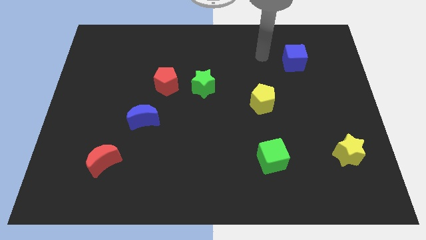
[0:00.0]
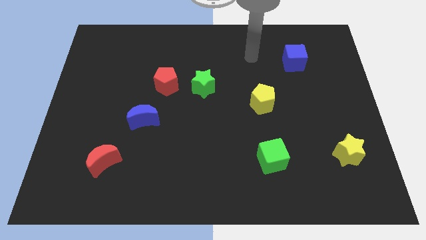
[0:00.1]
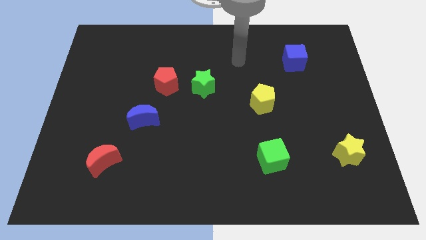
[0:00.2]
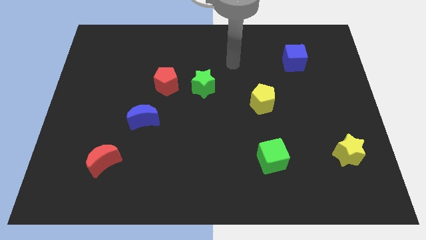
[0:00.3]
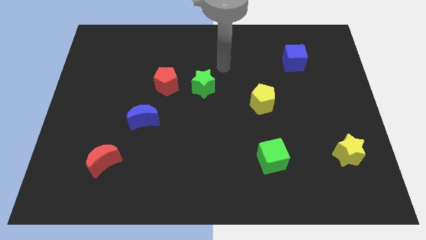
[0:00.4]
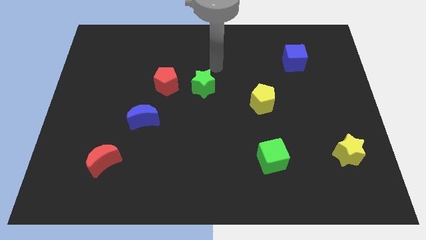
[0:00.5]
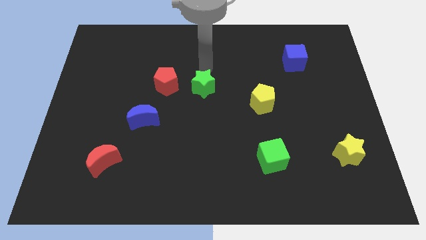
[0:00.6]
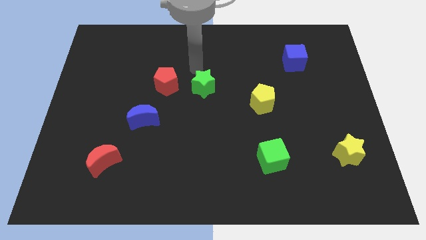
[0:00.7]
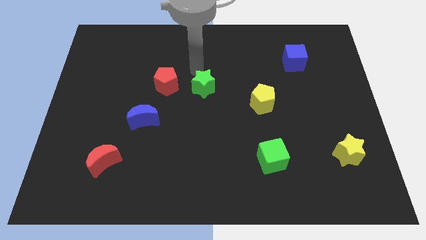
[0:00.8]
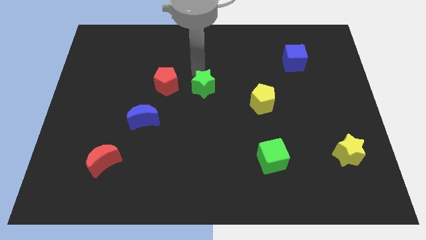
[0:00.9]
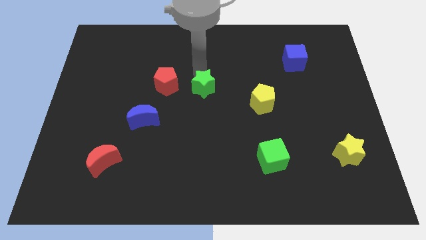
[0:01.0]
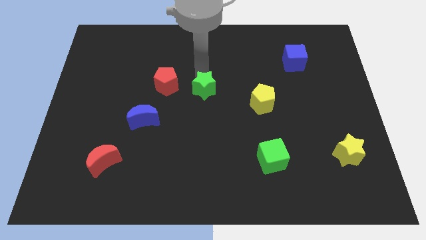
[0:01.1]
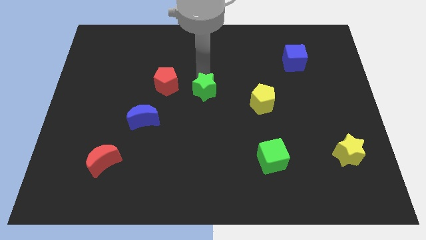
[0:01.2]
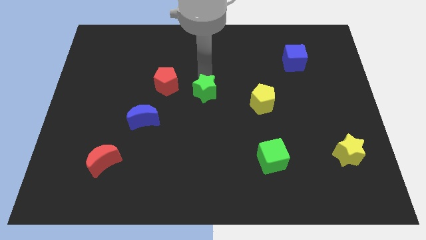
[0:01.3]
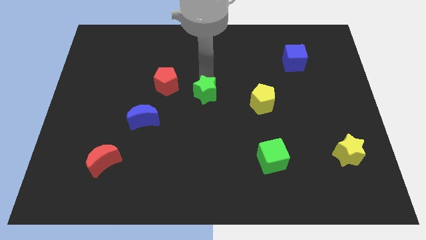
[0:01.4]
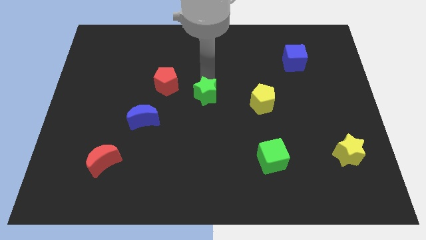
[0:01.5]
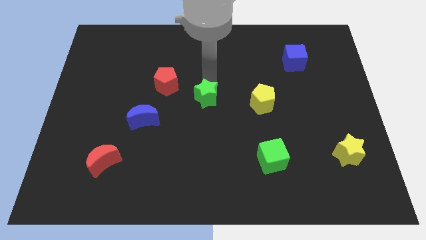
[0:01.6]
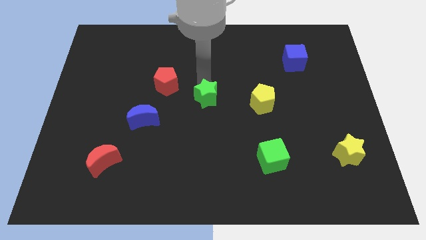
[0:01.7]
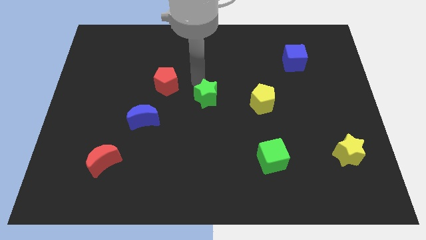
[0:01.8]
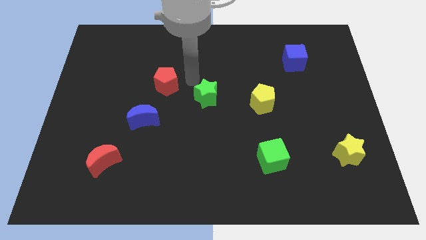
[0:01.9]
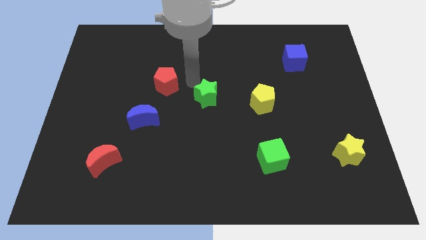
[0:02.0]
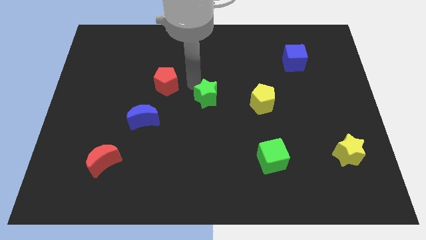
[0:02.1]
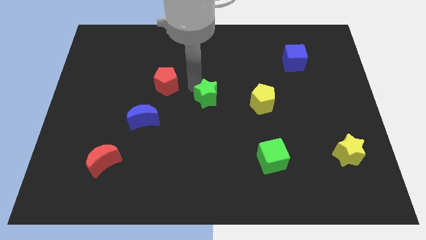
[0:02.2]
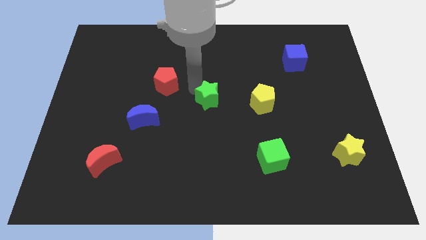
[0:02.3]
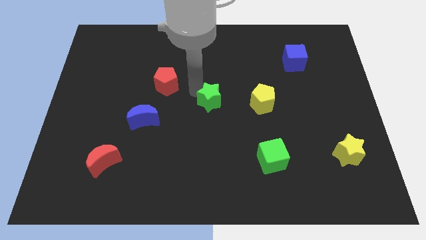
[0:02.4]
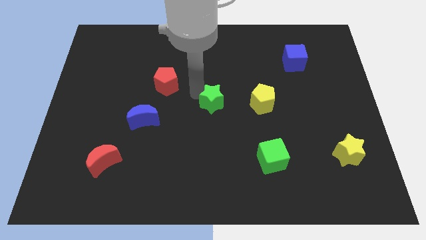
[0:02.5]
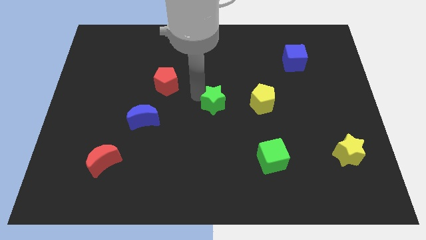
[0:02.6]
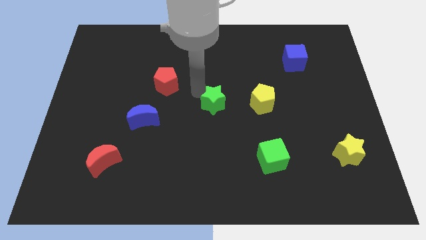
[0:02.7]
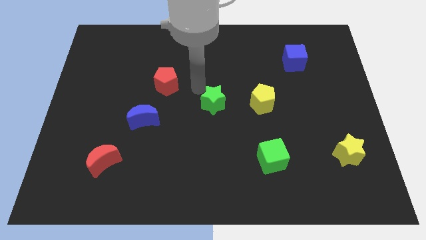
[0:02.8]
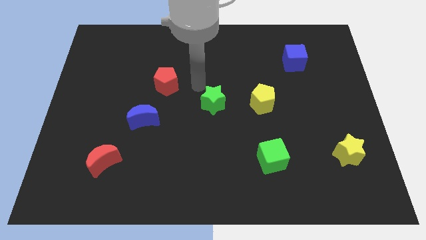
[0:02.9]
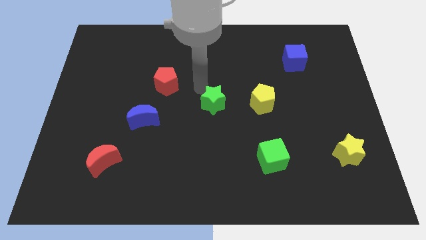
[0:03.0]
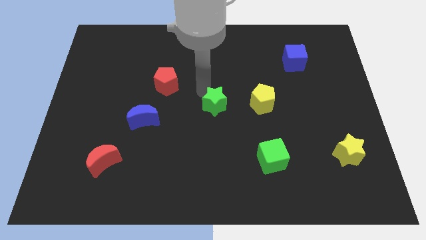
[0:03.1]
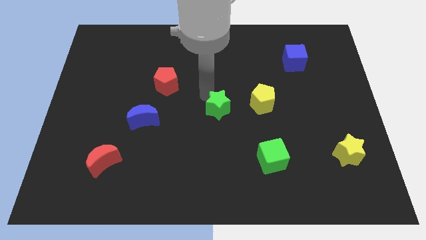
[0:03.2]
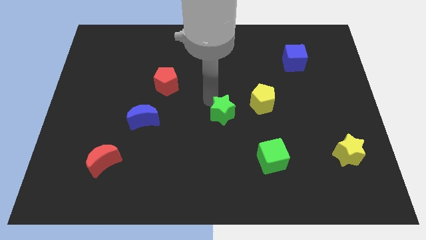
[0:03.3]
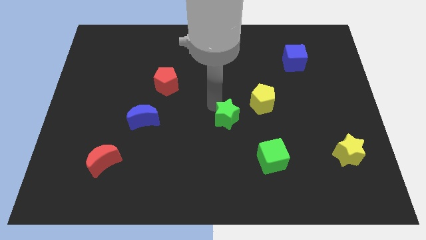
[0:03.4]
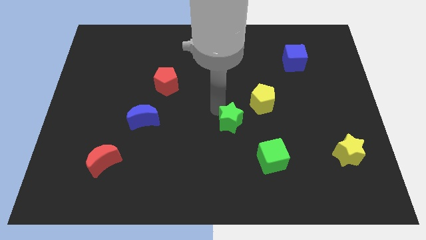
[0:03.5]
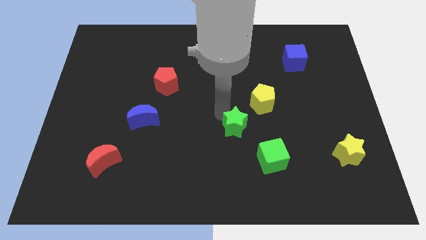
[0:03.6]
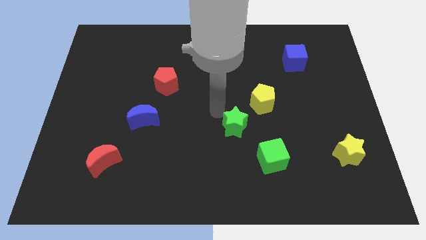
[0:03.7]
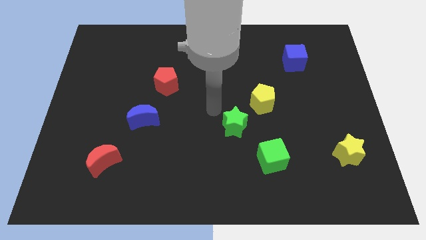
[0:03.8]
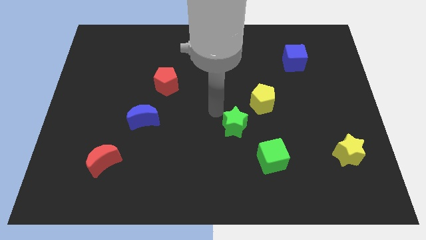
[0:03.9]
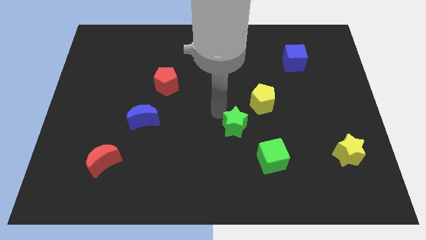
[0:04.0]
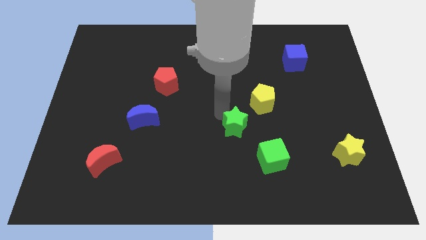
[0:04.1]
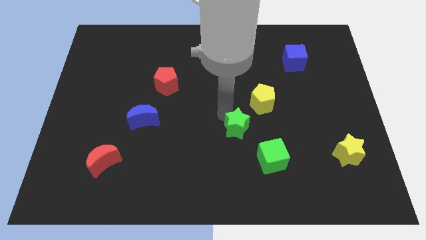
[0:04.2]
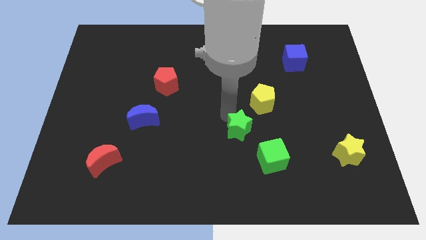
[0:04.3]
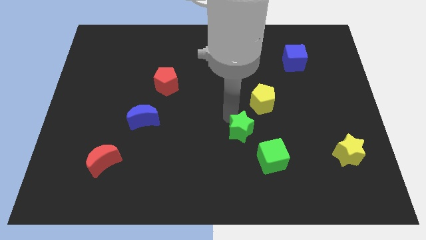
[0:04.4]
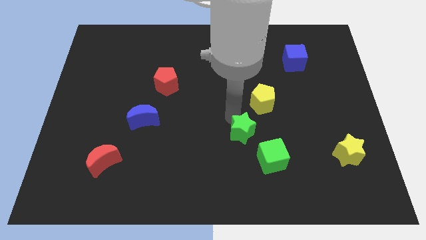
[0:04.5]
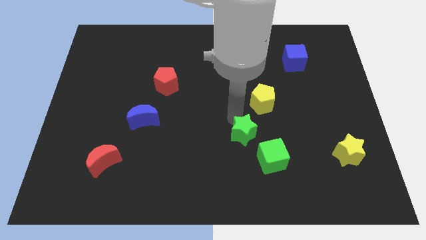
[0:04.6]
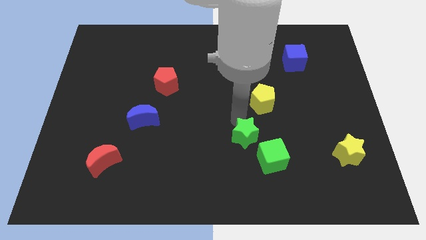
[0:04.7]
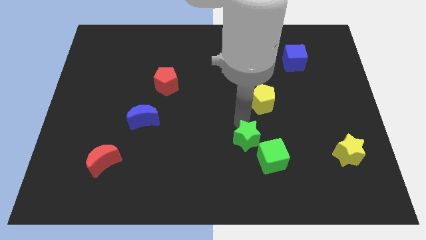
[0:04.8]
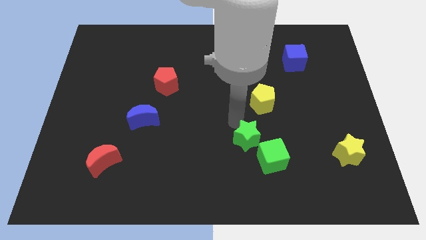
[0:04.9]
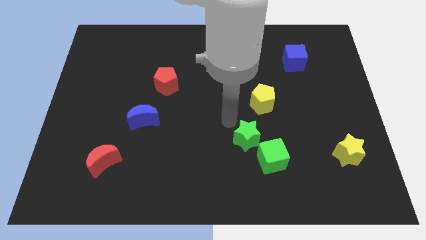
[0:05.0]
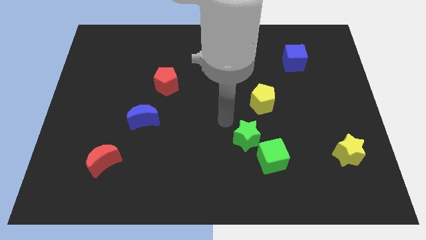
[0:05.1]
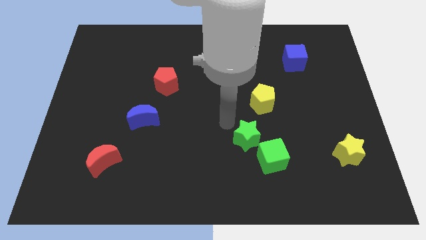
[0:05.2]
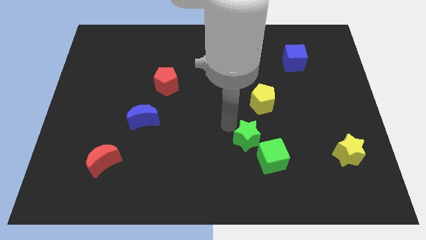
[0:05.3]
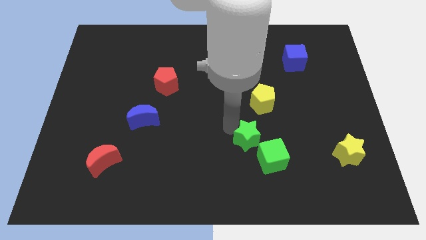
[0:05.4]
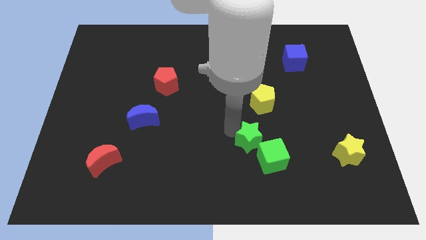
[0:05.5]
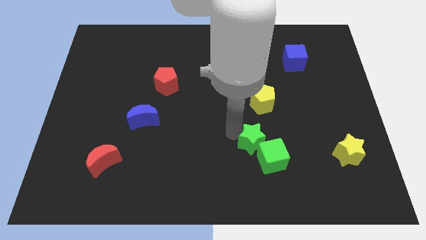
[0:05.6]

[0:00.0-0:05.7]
move the green star towards the green cube

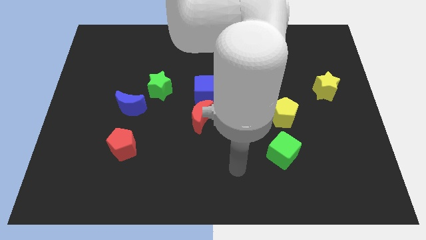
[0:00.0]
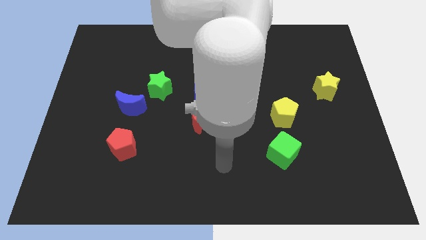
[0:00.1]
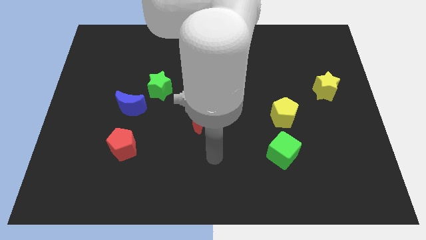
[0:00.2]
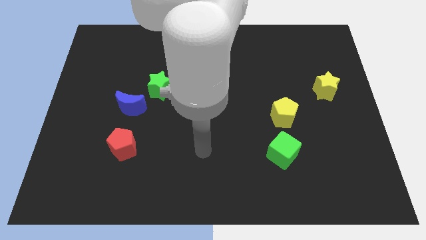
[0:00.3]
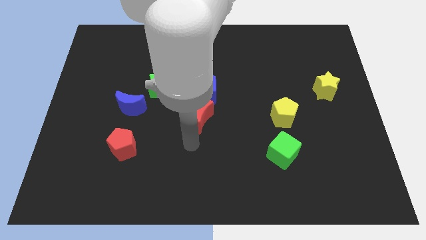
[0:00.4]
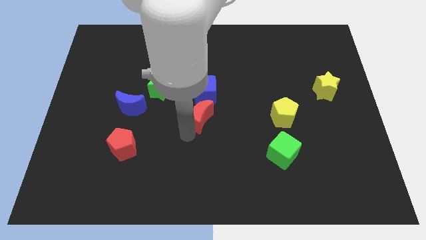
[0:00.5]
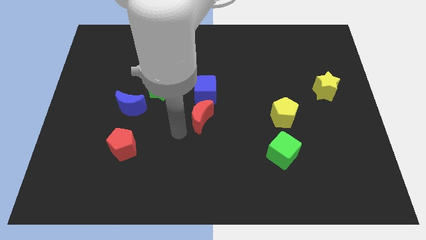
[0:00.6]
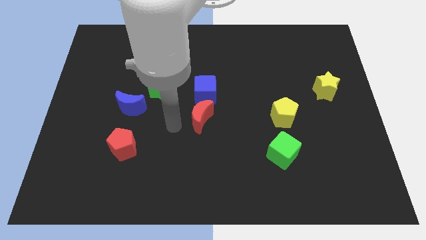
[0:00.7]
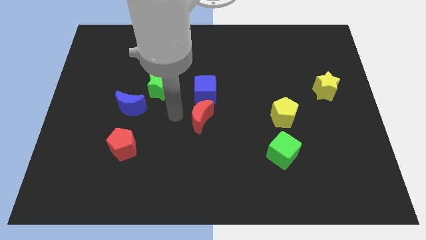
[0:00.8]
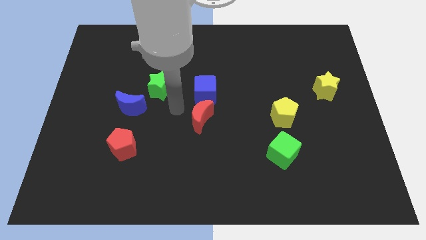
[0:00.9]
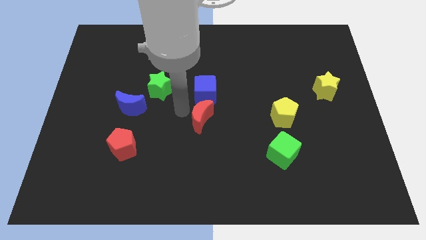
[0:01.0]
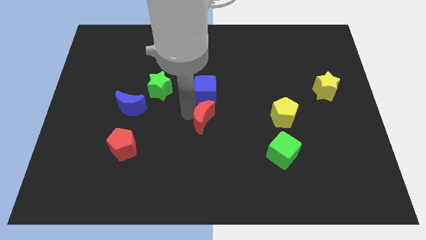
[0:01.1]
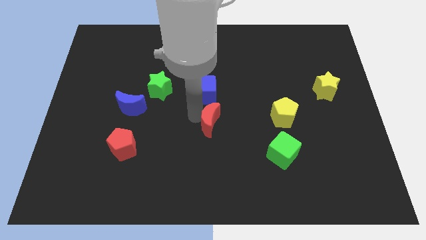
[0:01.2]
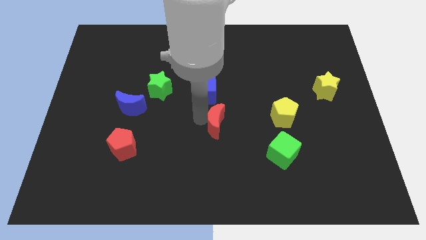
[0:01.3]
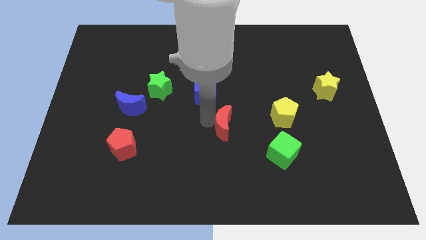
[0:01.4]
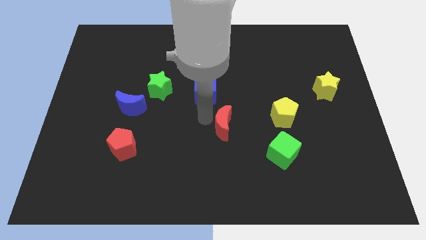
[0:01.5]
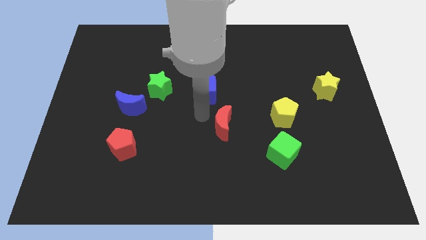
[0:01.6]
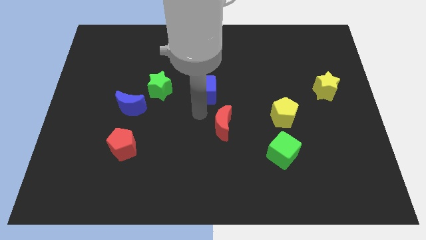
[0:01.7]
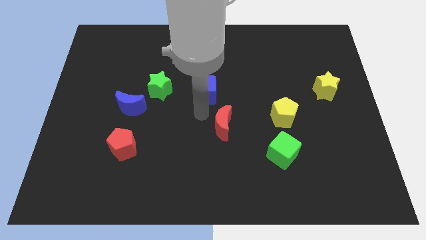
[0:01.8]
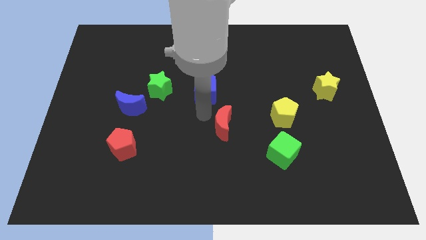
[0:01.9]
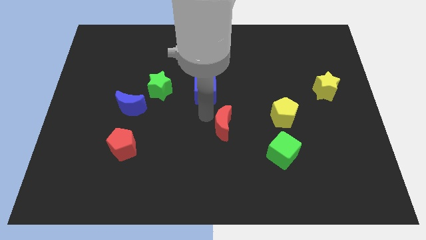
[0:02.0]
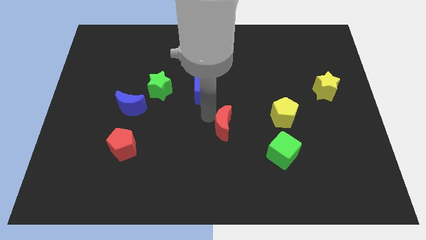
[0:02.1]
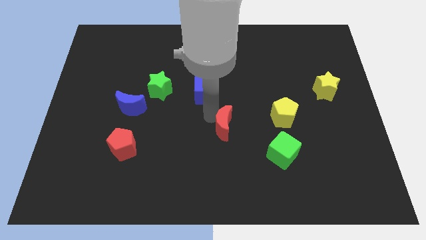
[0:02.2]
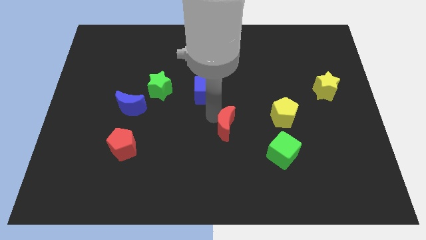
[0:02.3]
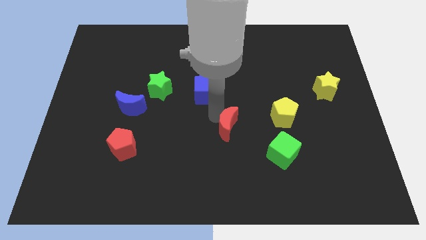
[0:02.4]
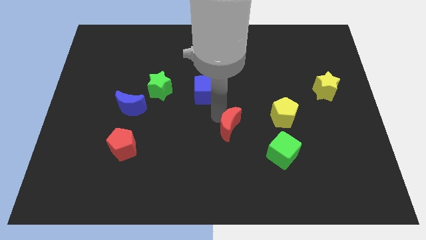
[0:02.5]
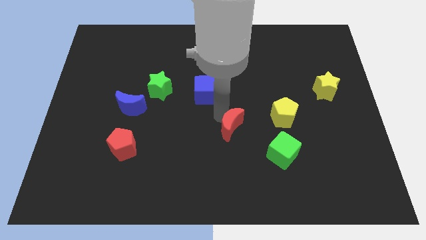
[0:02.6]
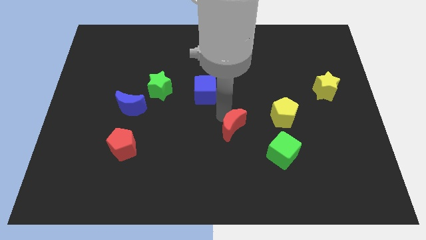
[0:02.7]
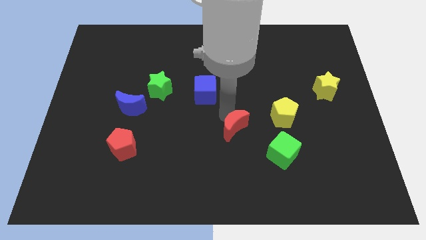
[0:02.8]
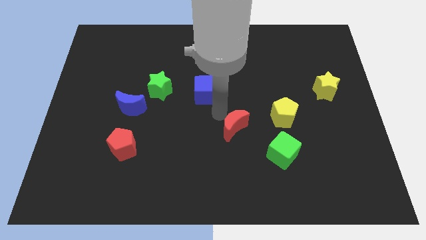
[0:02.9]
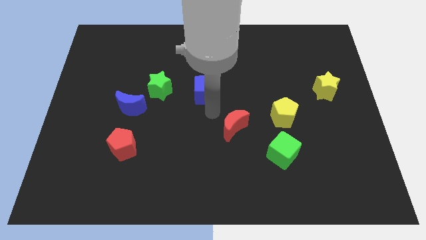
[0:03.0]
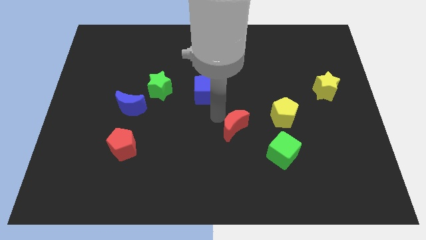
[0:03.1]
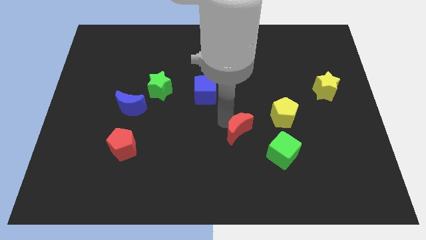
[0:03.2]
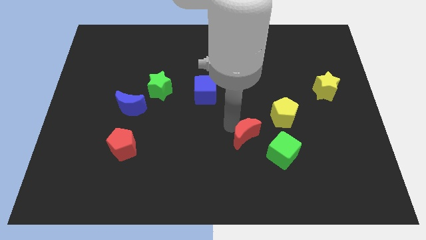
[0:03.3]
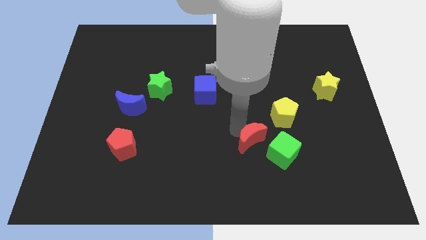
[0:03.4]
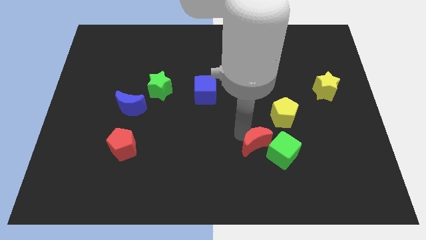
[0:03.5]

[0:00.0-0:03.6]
move the red moon close to the green cube
